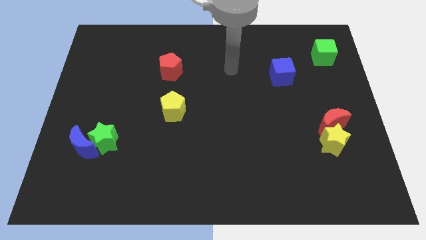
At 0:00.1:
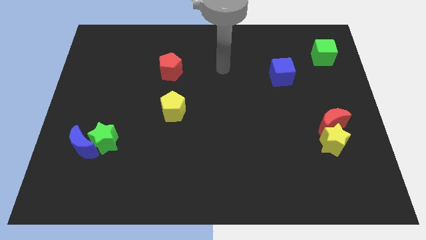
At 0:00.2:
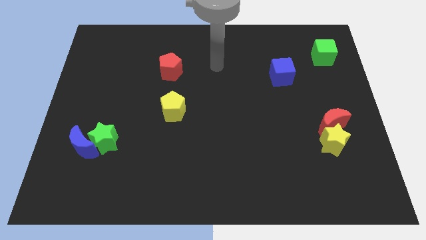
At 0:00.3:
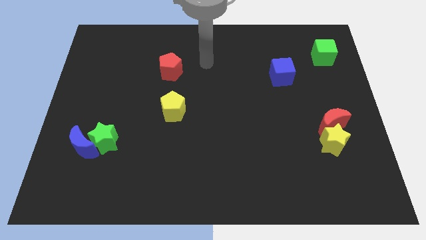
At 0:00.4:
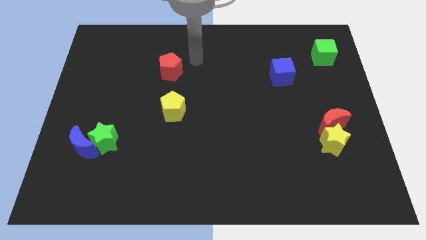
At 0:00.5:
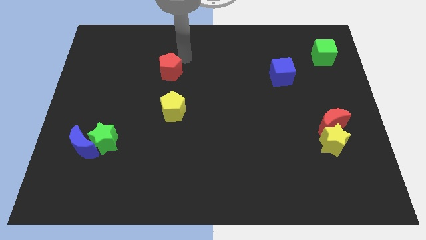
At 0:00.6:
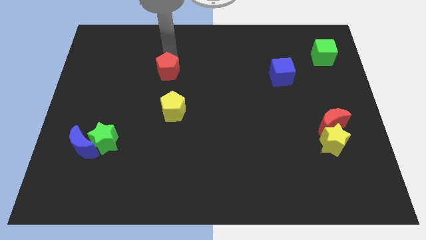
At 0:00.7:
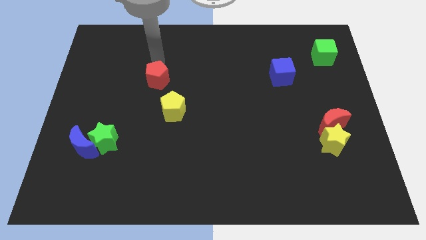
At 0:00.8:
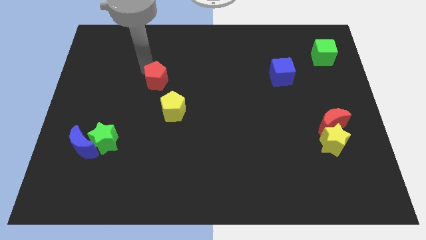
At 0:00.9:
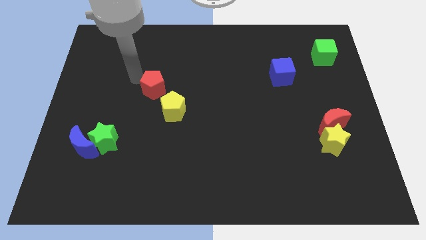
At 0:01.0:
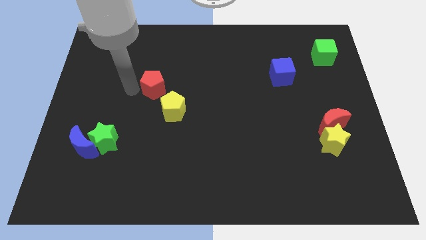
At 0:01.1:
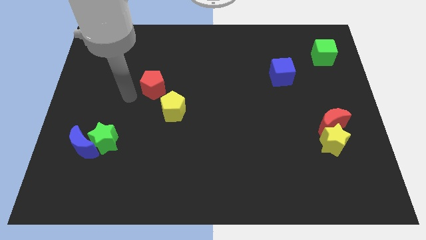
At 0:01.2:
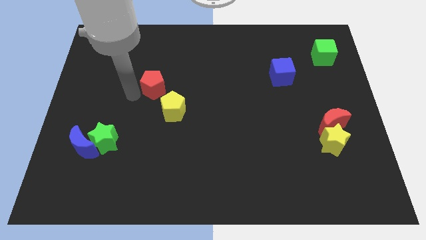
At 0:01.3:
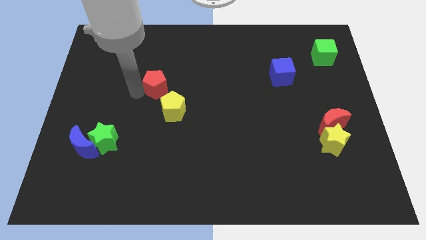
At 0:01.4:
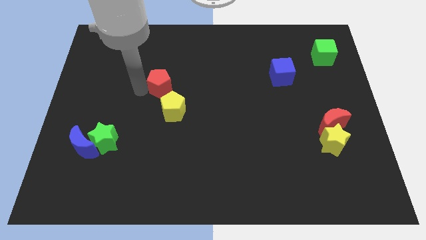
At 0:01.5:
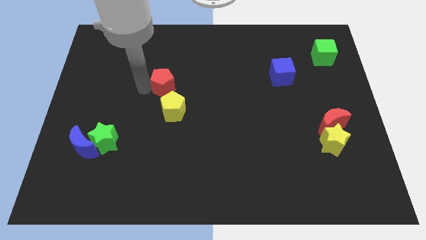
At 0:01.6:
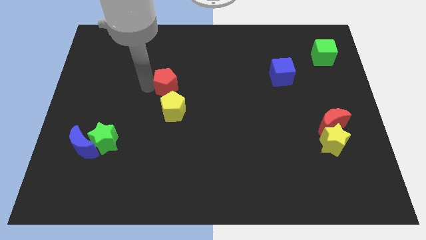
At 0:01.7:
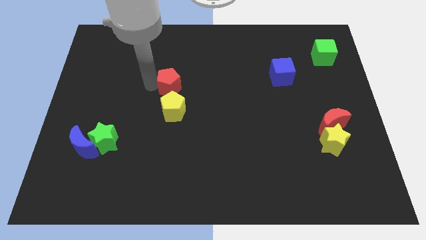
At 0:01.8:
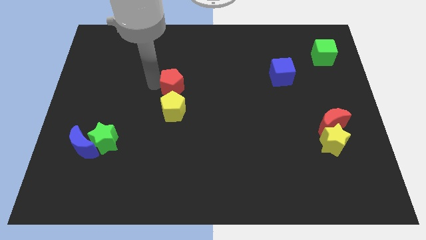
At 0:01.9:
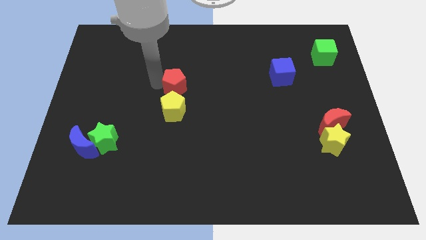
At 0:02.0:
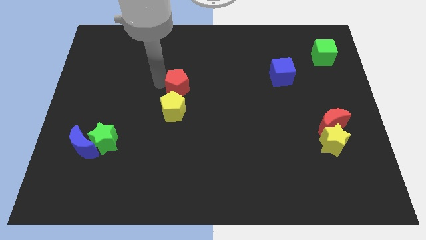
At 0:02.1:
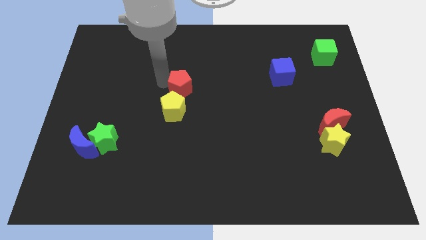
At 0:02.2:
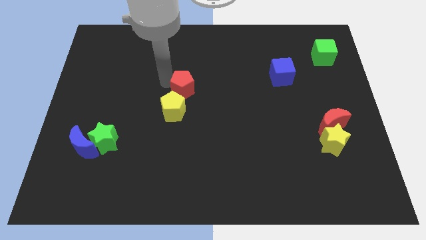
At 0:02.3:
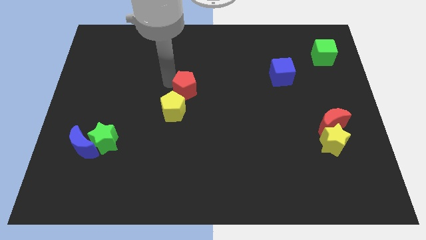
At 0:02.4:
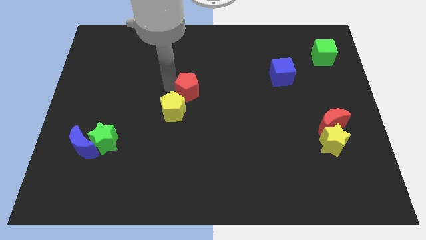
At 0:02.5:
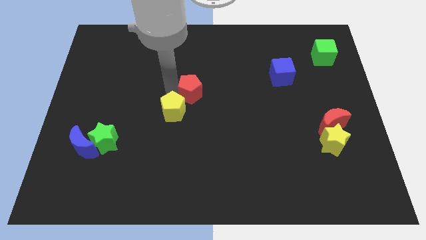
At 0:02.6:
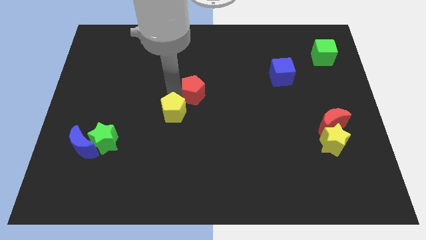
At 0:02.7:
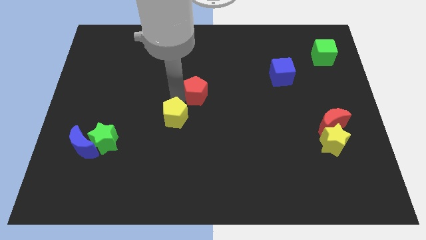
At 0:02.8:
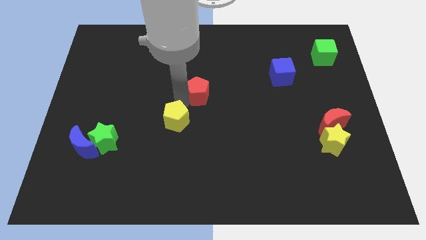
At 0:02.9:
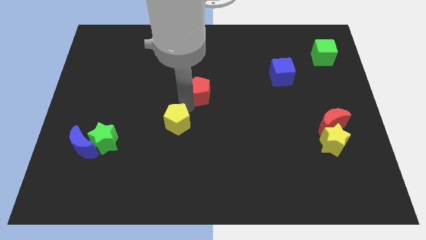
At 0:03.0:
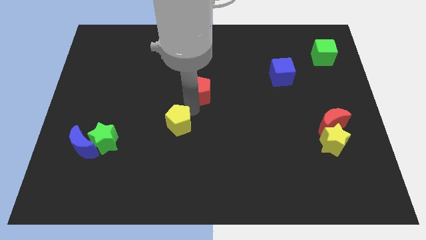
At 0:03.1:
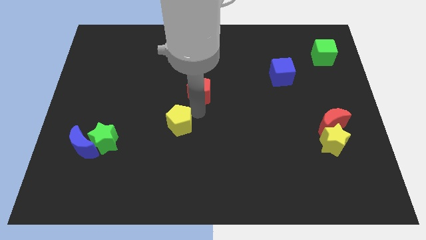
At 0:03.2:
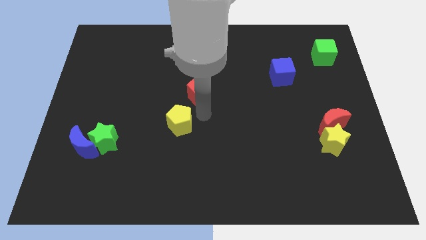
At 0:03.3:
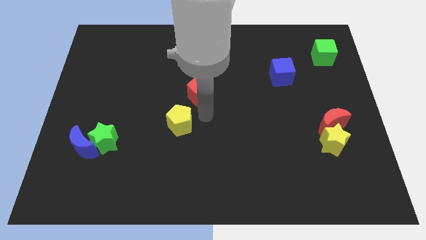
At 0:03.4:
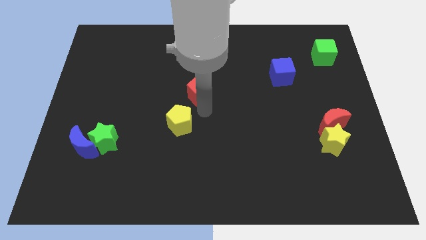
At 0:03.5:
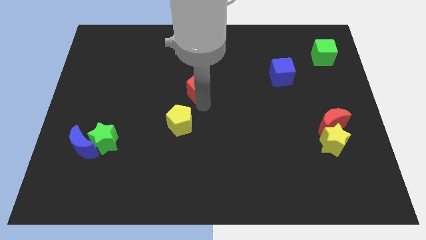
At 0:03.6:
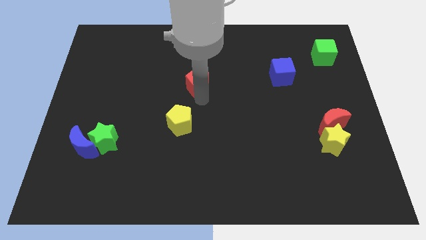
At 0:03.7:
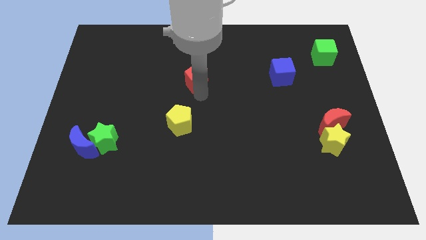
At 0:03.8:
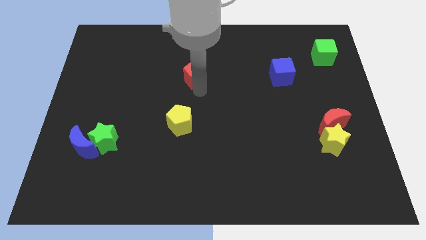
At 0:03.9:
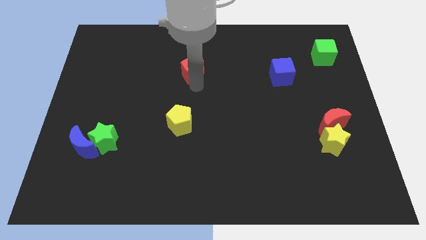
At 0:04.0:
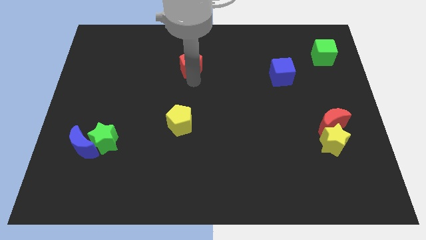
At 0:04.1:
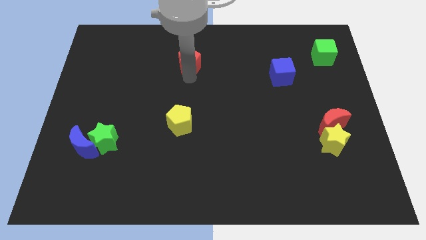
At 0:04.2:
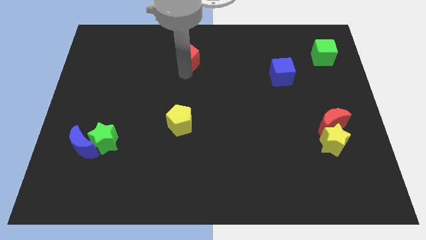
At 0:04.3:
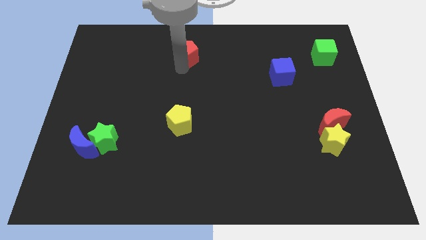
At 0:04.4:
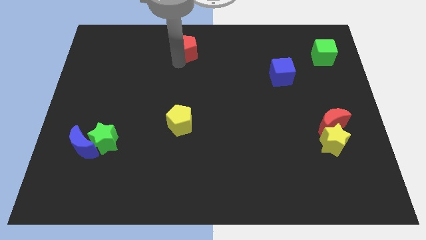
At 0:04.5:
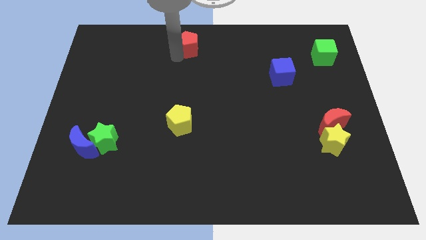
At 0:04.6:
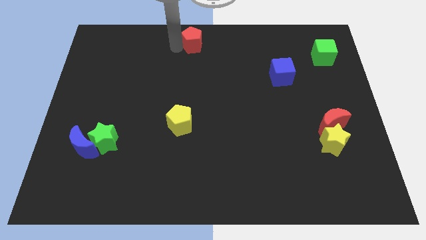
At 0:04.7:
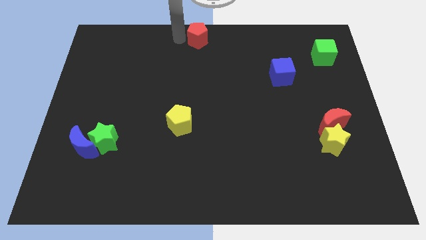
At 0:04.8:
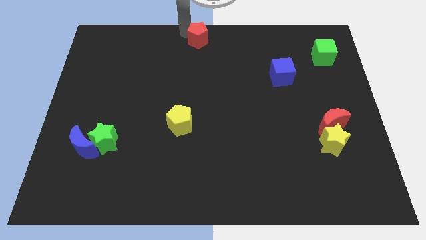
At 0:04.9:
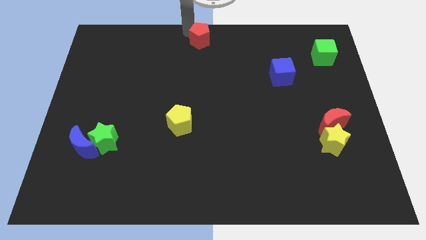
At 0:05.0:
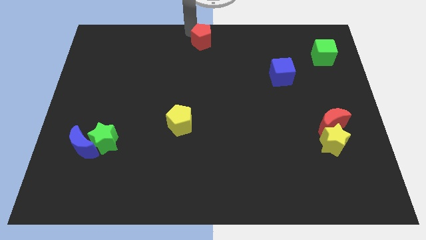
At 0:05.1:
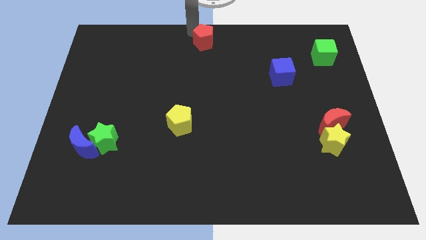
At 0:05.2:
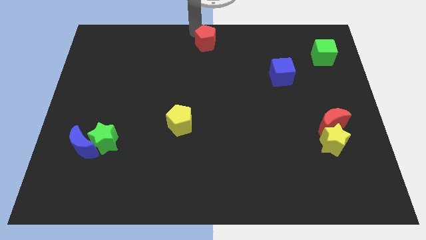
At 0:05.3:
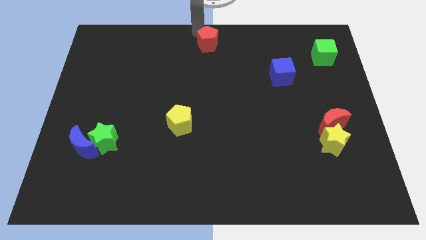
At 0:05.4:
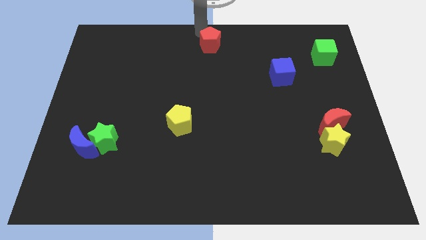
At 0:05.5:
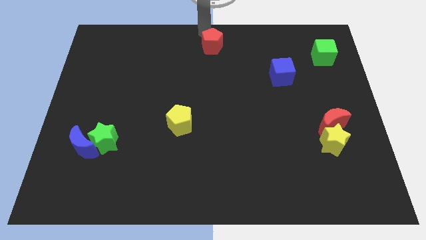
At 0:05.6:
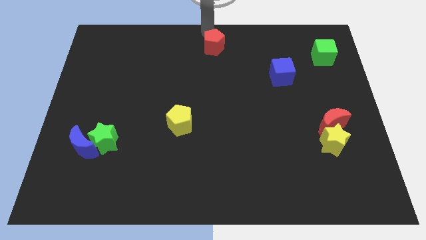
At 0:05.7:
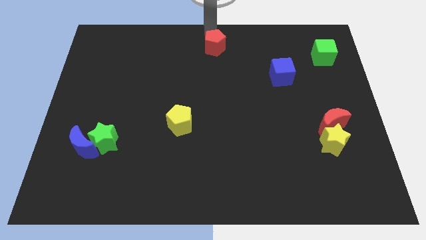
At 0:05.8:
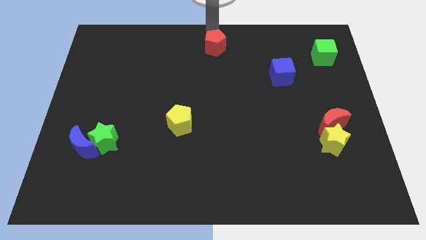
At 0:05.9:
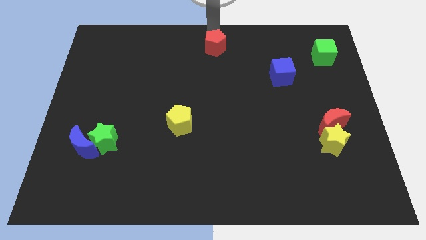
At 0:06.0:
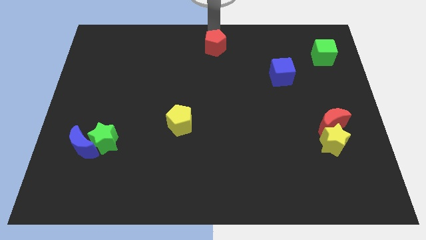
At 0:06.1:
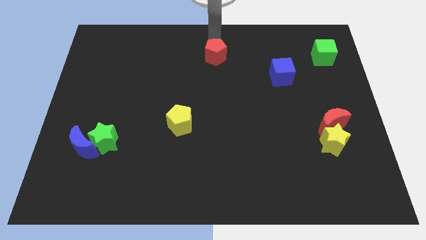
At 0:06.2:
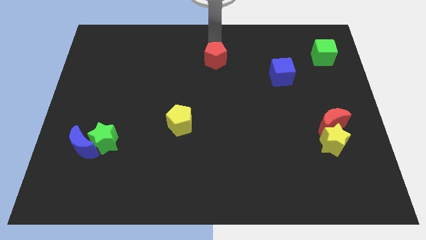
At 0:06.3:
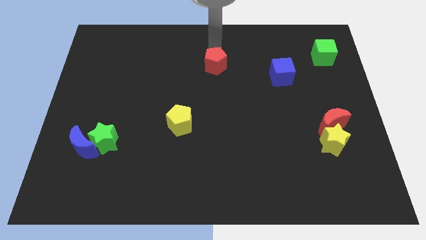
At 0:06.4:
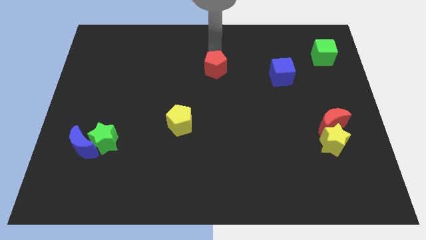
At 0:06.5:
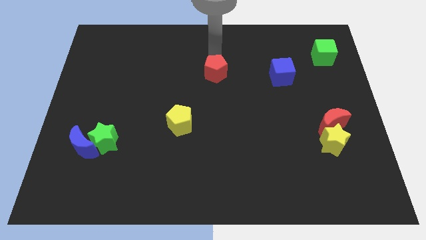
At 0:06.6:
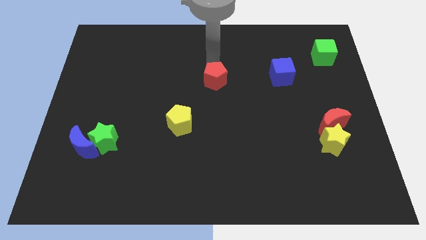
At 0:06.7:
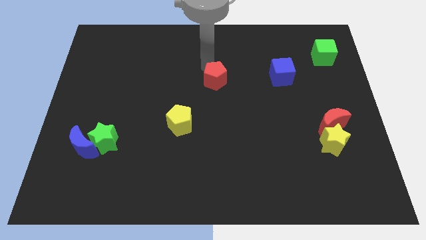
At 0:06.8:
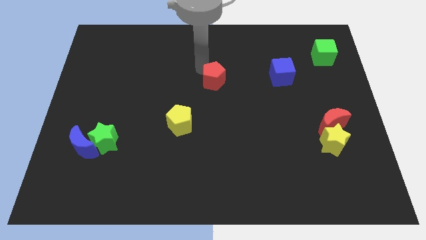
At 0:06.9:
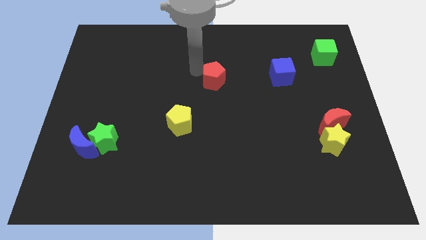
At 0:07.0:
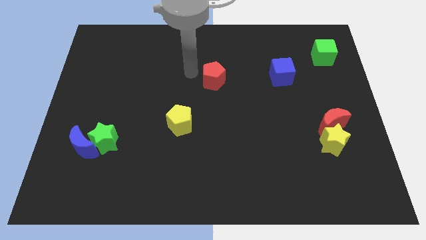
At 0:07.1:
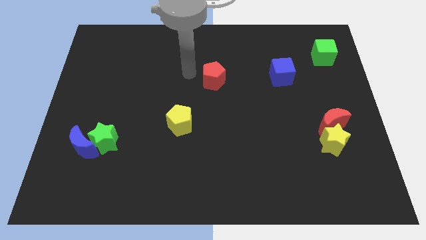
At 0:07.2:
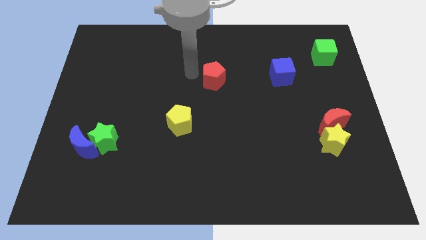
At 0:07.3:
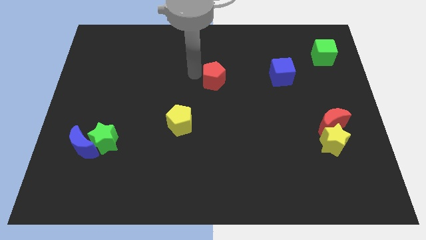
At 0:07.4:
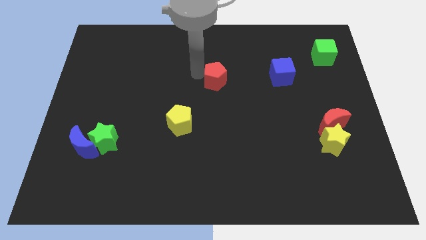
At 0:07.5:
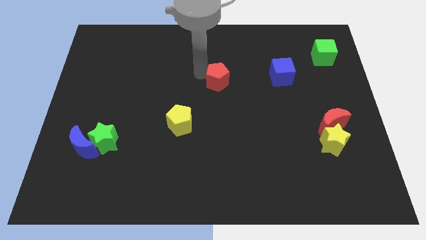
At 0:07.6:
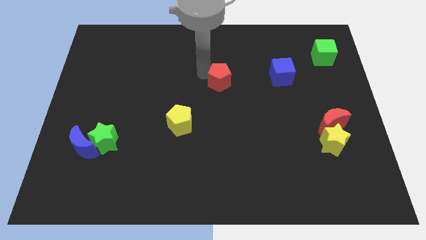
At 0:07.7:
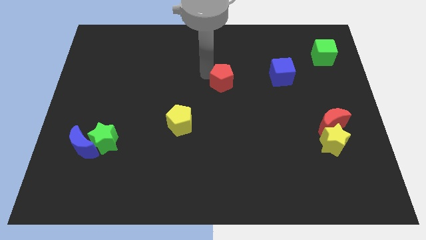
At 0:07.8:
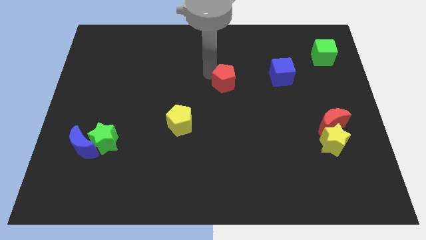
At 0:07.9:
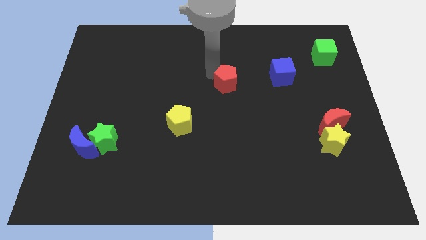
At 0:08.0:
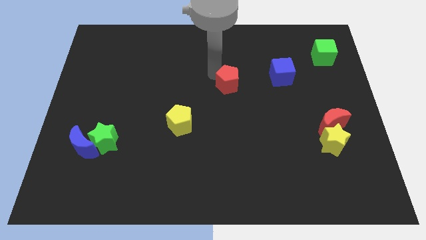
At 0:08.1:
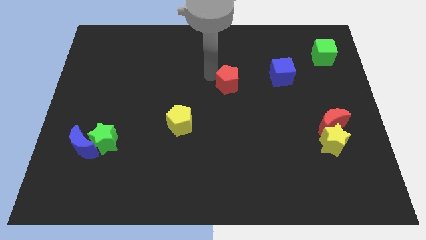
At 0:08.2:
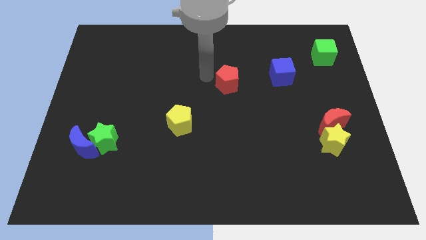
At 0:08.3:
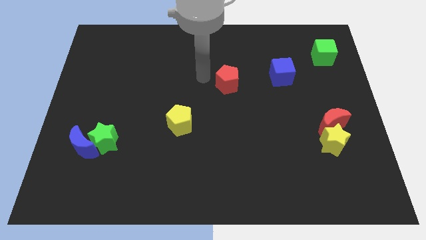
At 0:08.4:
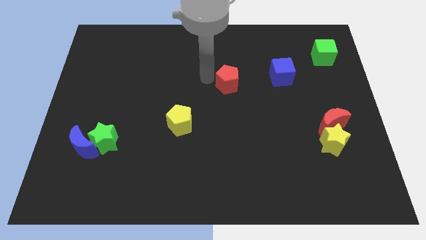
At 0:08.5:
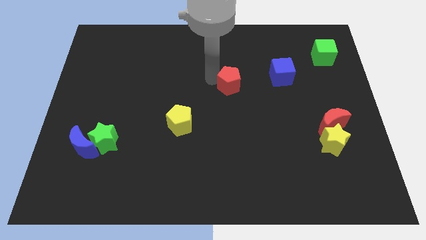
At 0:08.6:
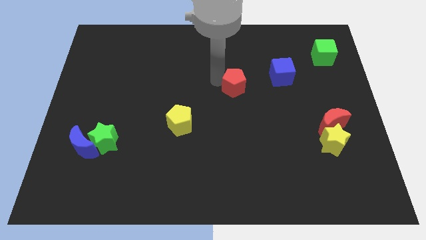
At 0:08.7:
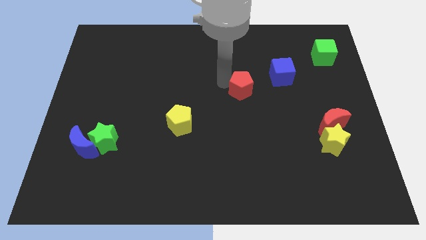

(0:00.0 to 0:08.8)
move the red pentagon diagonally down and to the left of the blue cube
